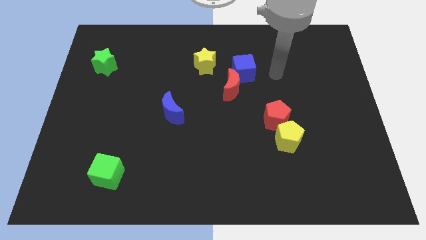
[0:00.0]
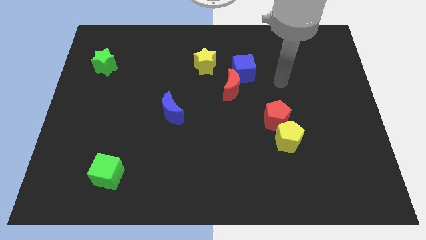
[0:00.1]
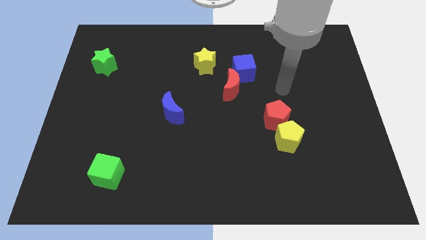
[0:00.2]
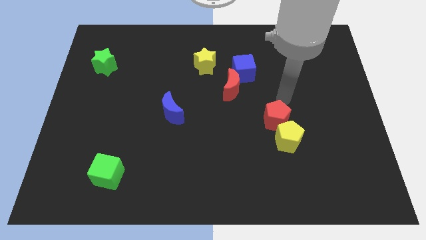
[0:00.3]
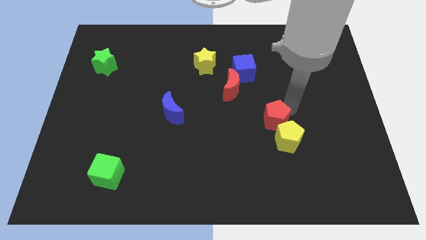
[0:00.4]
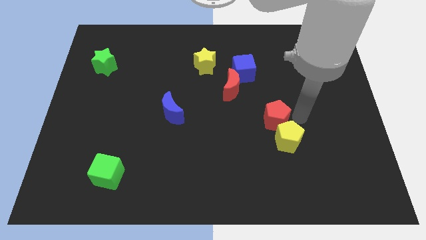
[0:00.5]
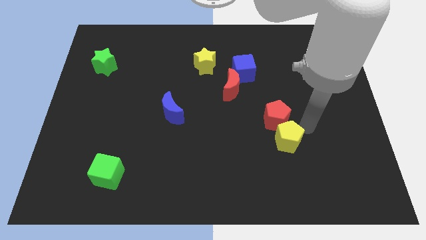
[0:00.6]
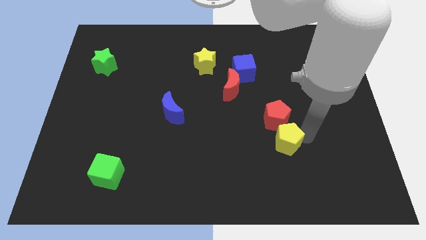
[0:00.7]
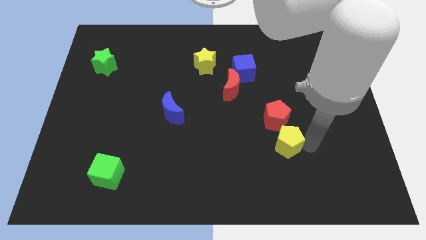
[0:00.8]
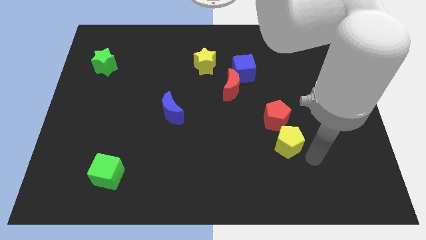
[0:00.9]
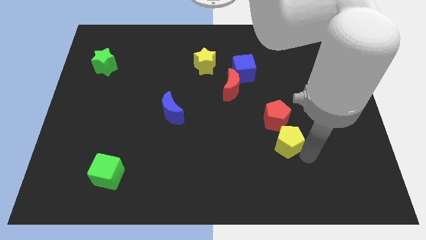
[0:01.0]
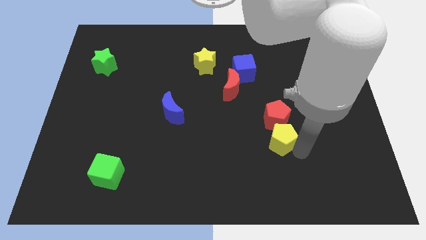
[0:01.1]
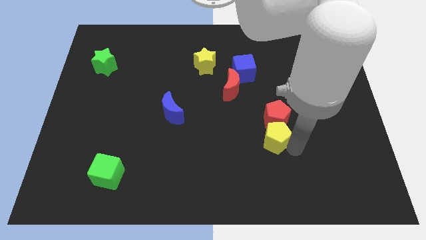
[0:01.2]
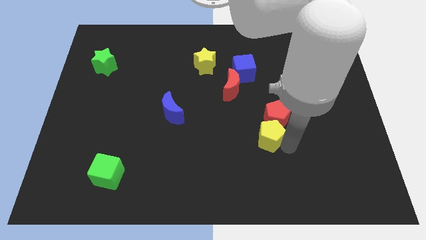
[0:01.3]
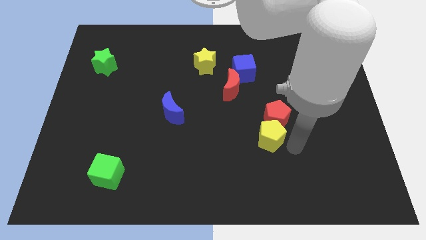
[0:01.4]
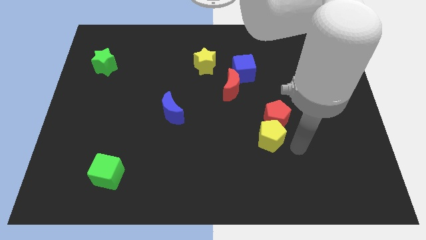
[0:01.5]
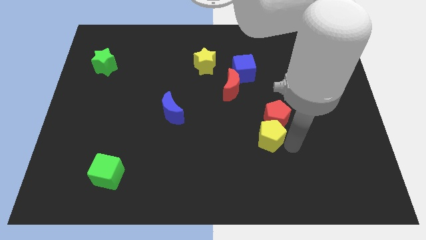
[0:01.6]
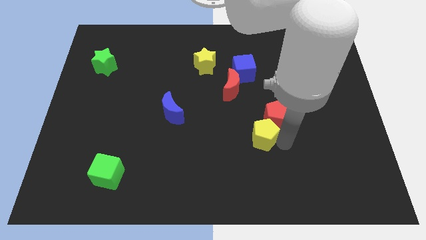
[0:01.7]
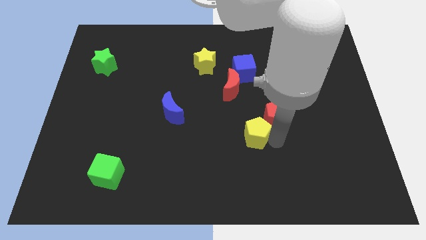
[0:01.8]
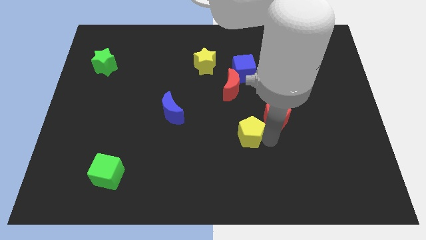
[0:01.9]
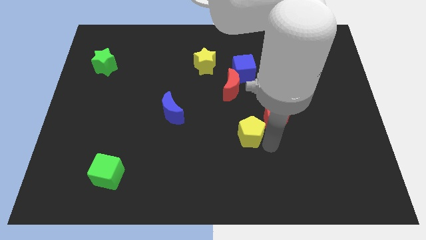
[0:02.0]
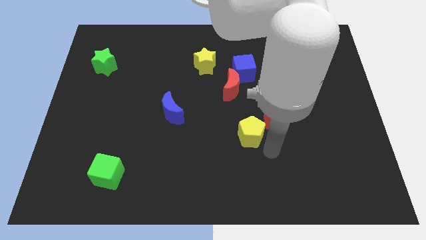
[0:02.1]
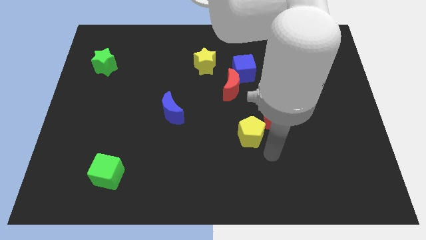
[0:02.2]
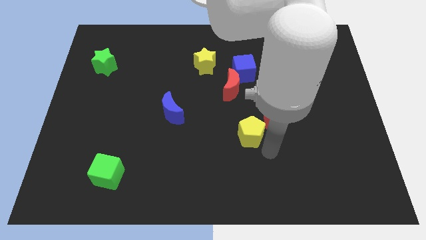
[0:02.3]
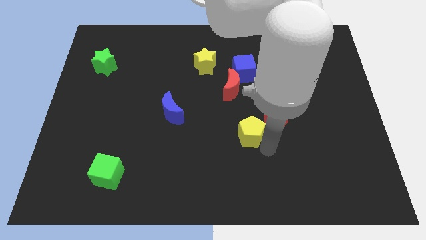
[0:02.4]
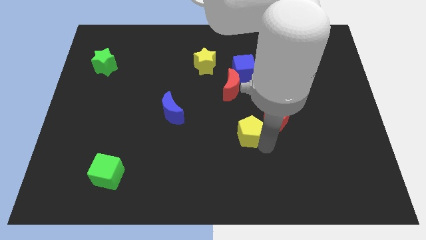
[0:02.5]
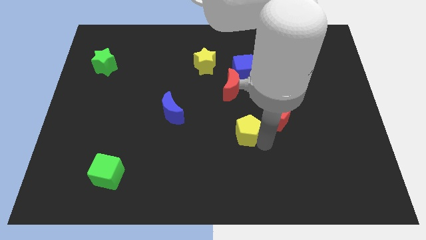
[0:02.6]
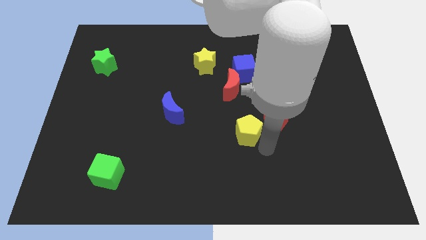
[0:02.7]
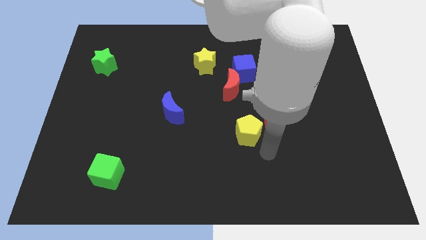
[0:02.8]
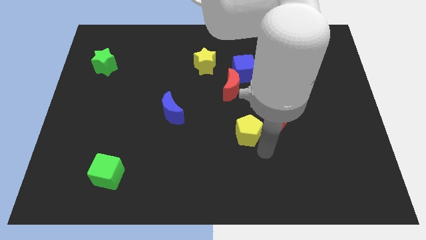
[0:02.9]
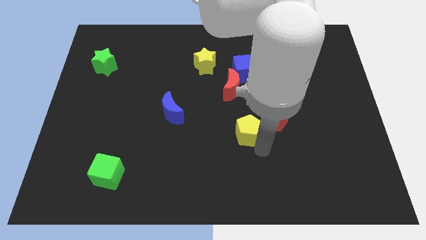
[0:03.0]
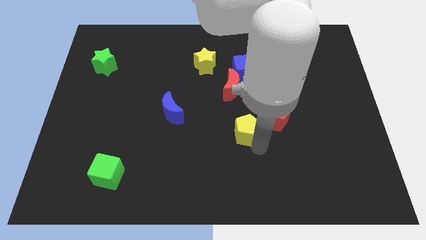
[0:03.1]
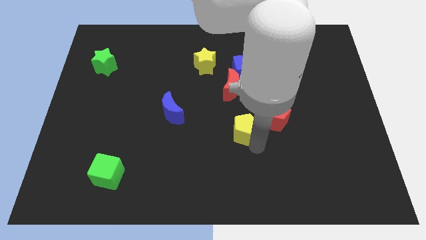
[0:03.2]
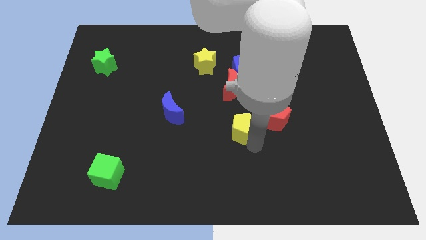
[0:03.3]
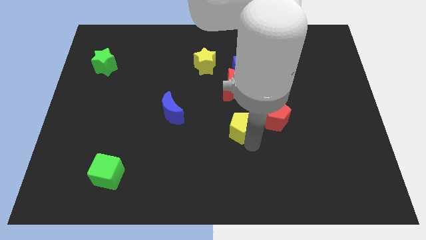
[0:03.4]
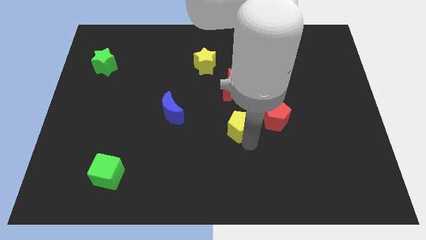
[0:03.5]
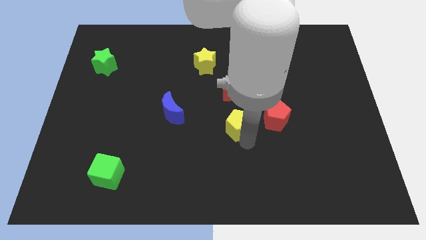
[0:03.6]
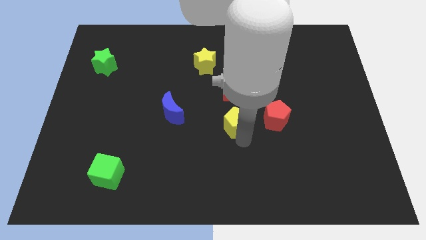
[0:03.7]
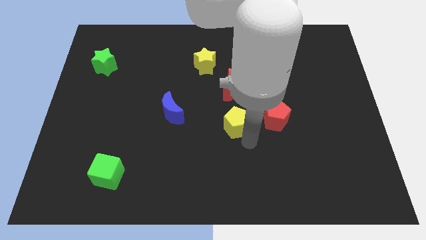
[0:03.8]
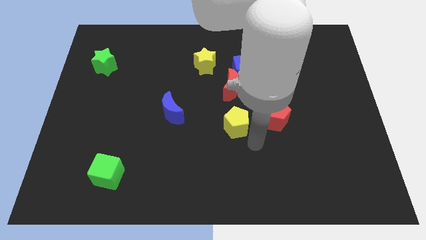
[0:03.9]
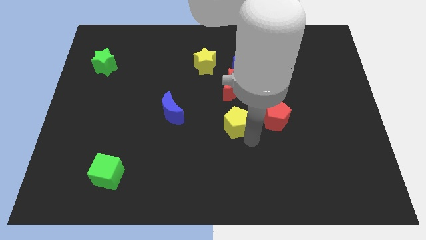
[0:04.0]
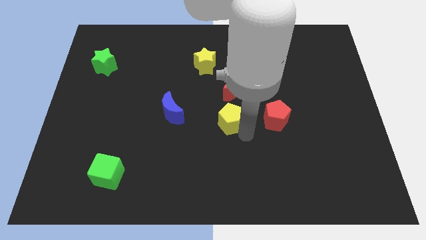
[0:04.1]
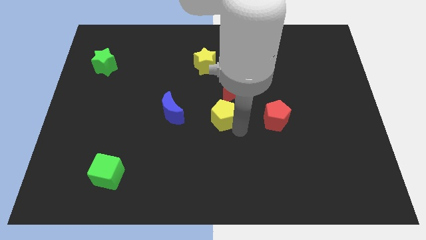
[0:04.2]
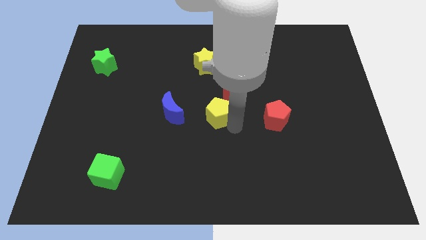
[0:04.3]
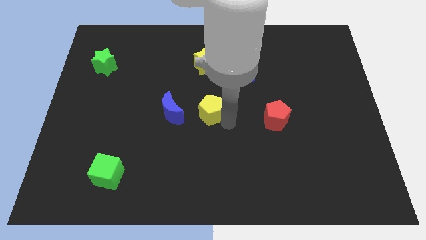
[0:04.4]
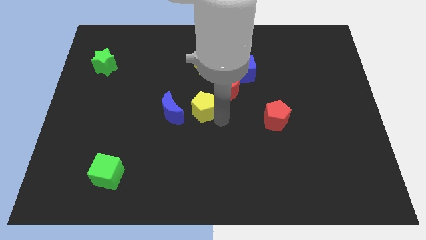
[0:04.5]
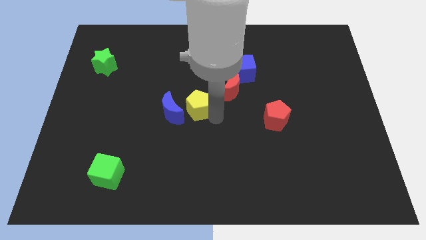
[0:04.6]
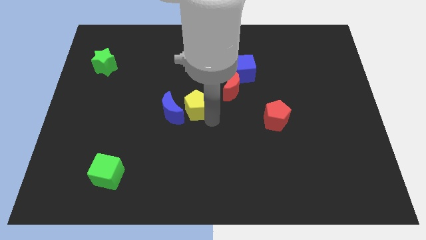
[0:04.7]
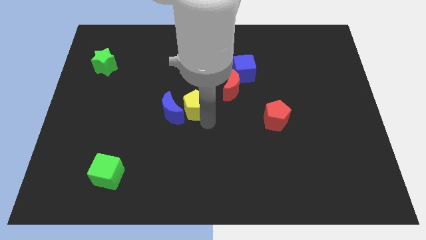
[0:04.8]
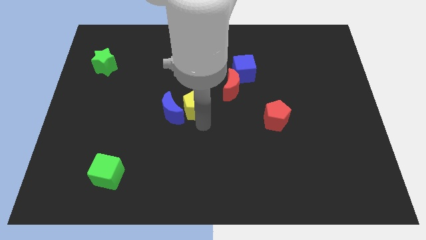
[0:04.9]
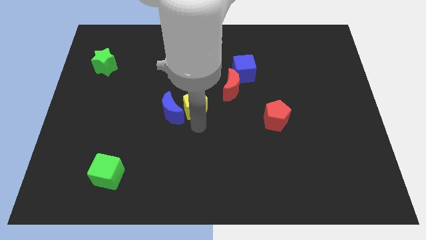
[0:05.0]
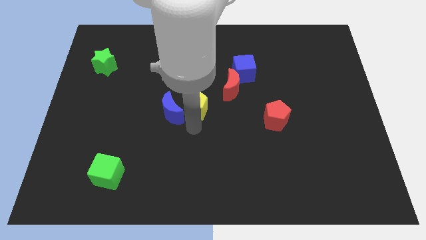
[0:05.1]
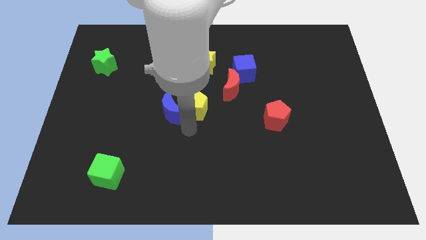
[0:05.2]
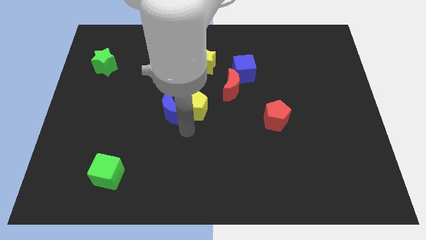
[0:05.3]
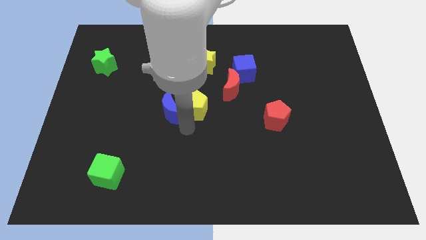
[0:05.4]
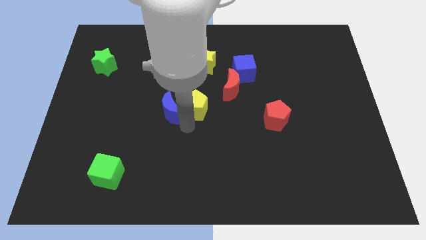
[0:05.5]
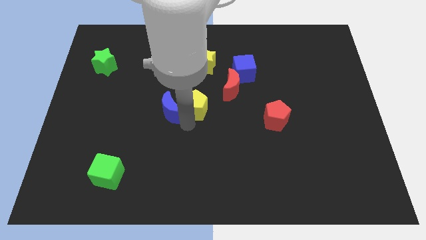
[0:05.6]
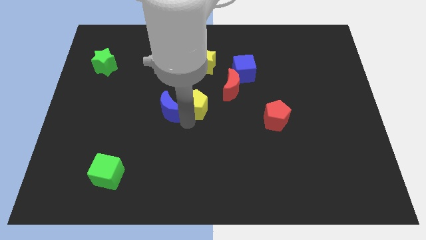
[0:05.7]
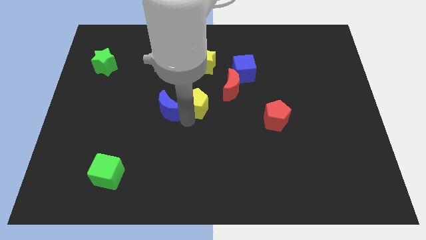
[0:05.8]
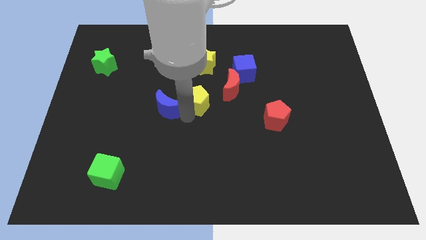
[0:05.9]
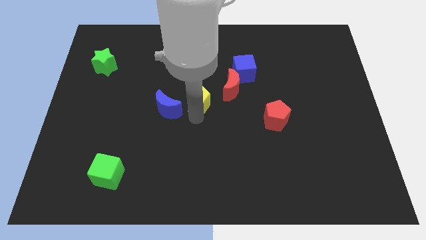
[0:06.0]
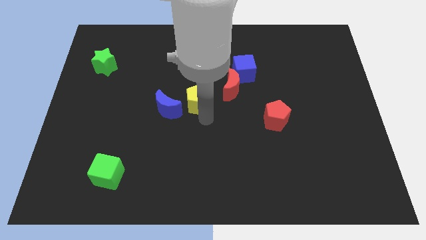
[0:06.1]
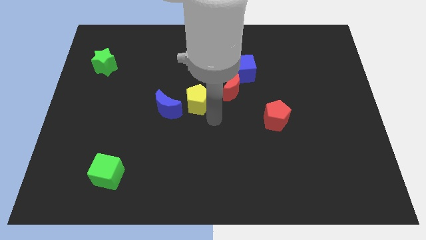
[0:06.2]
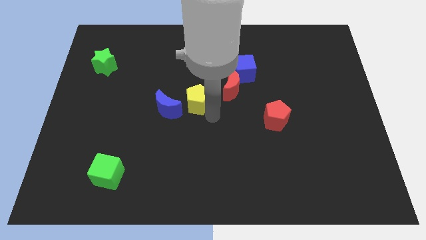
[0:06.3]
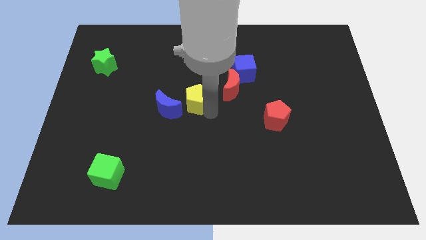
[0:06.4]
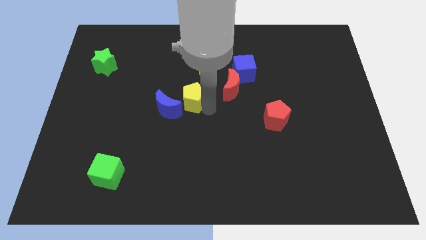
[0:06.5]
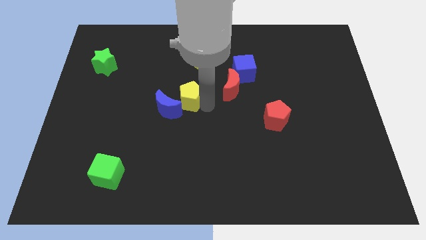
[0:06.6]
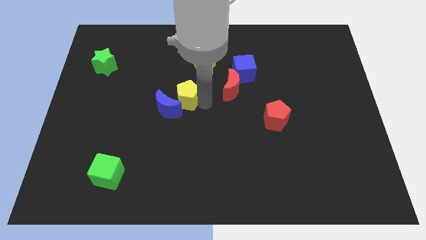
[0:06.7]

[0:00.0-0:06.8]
move the yellow pentagon above the blue moon
